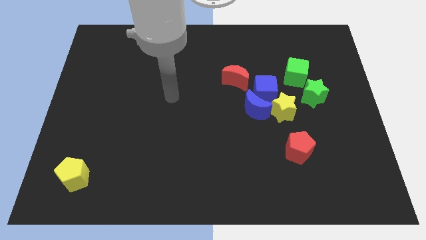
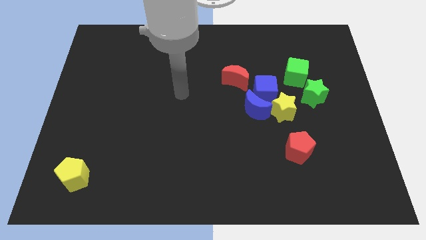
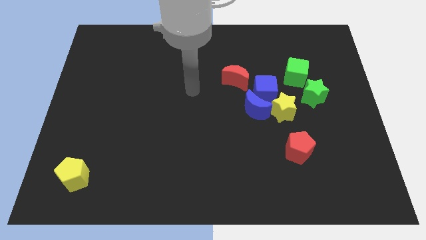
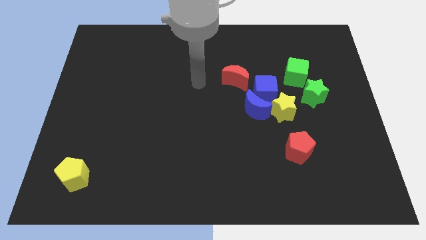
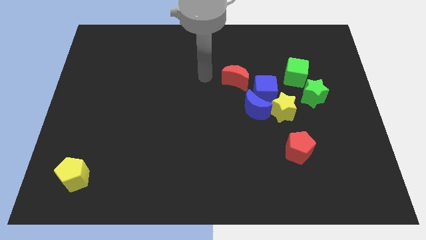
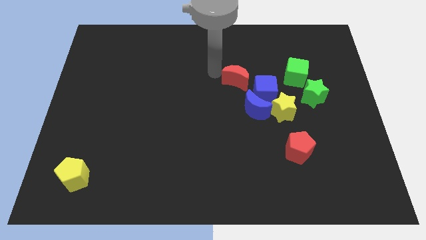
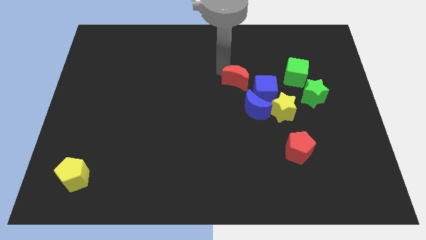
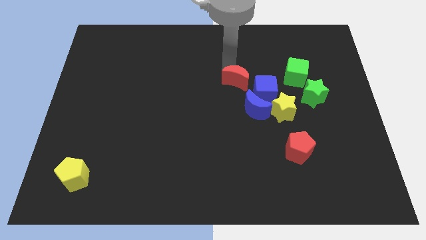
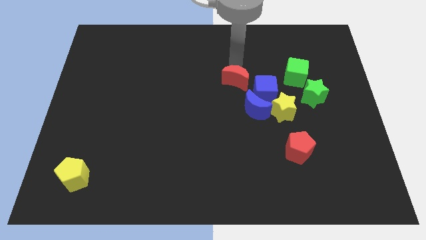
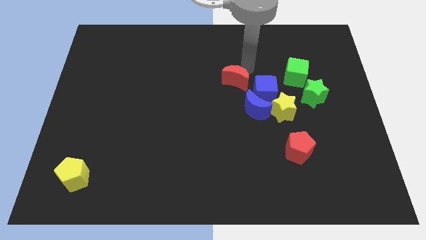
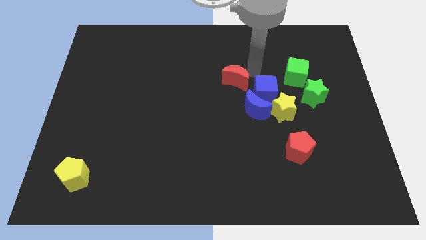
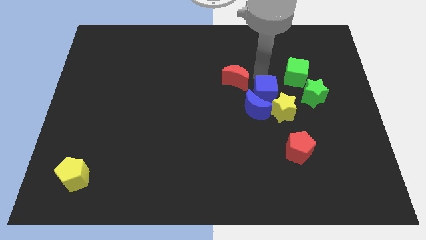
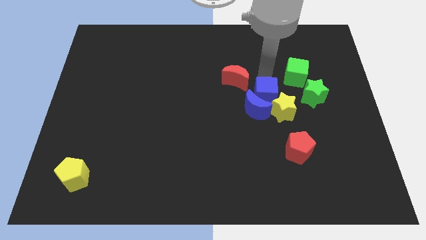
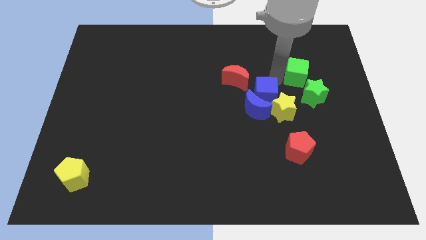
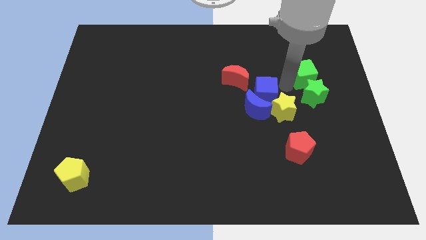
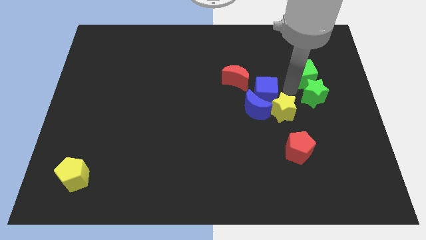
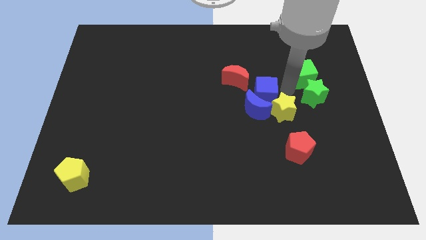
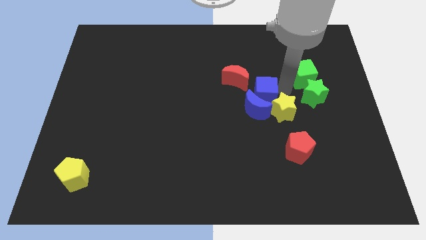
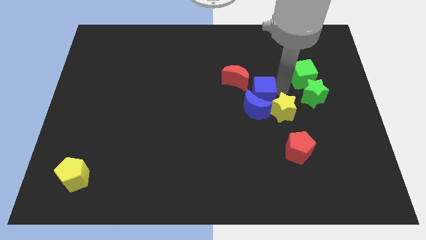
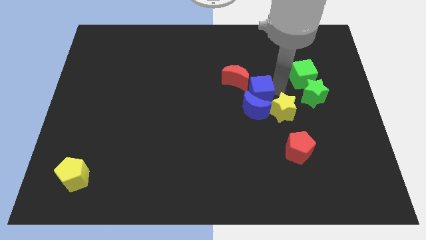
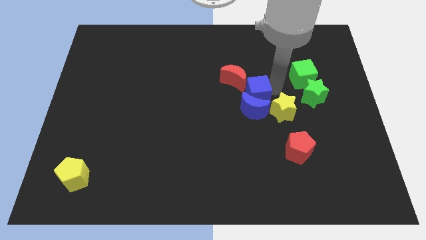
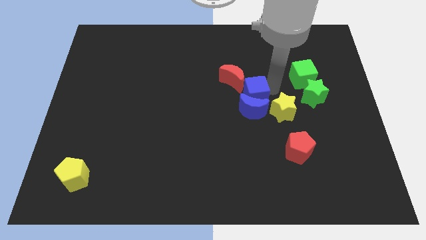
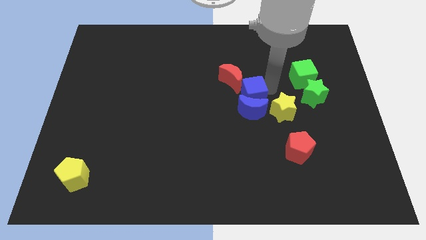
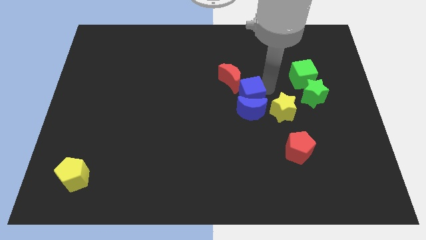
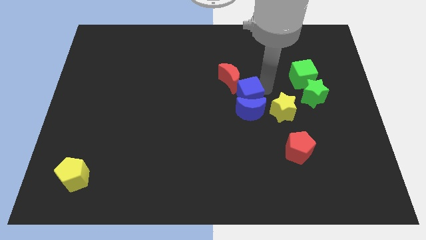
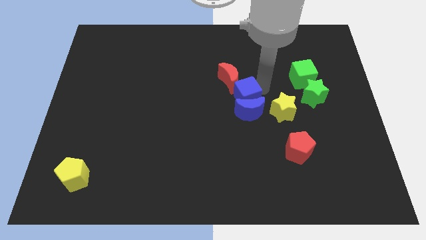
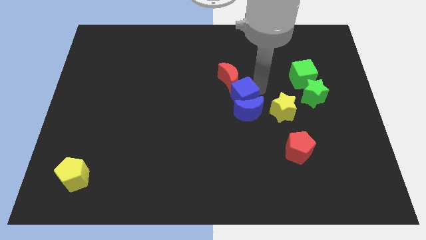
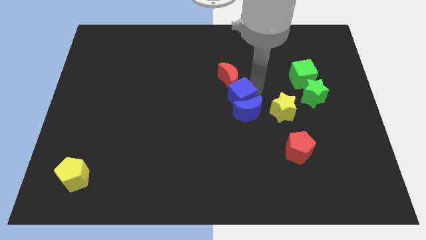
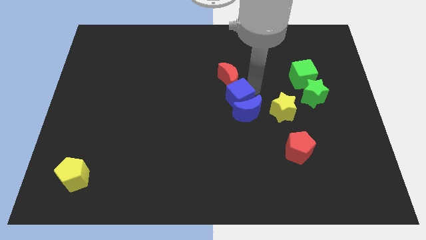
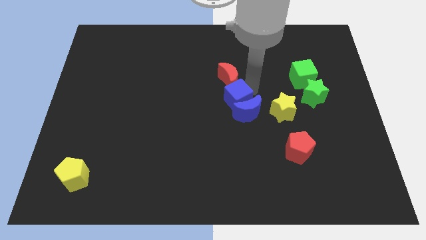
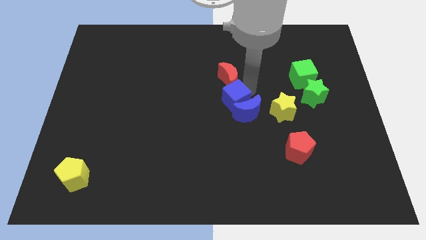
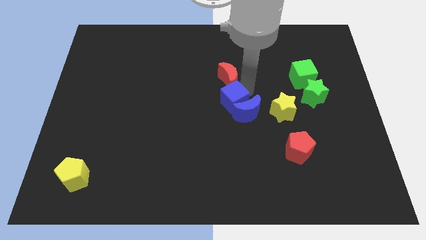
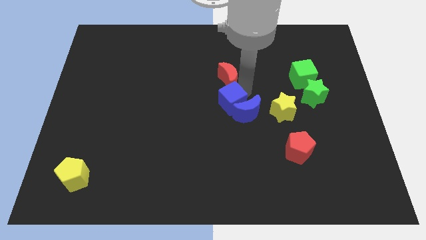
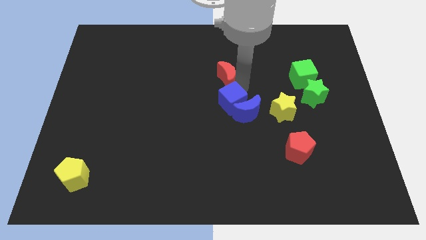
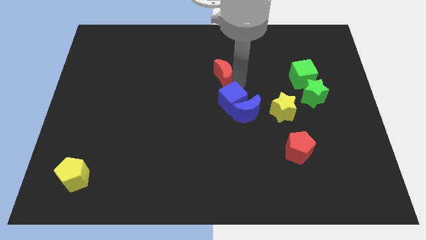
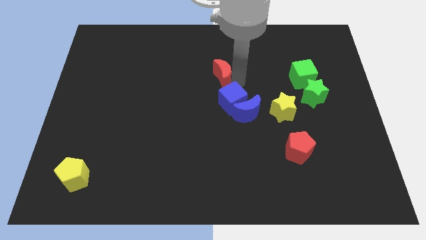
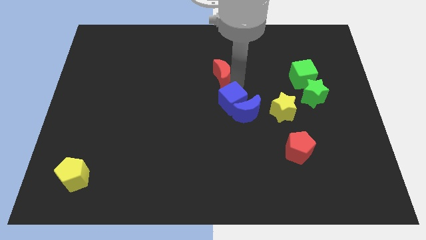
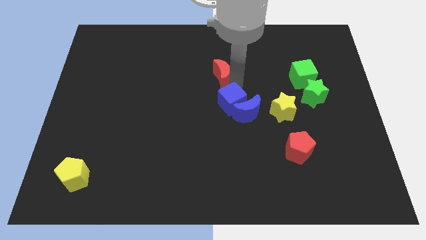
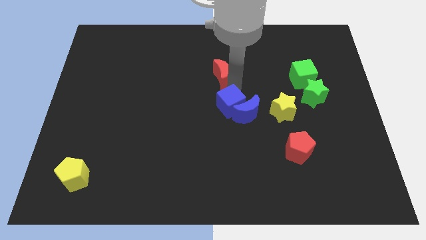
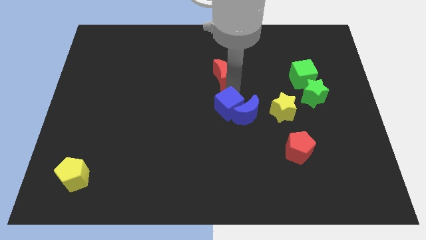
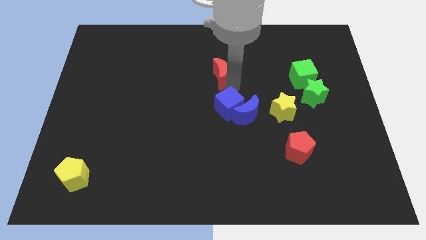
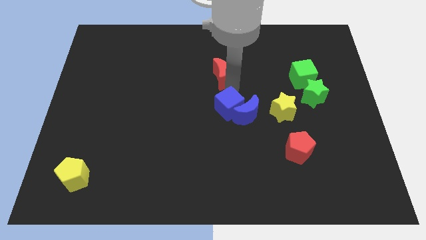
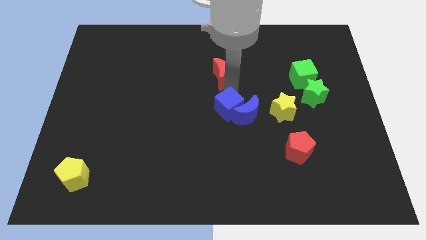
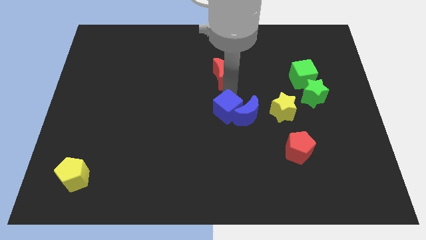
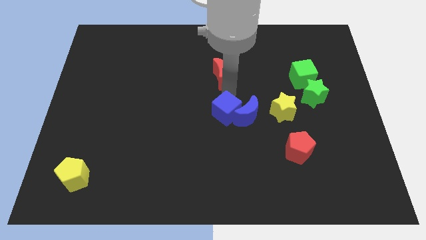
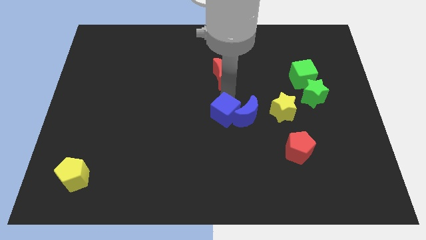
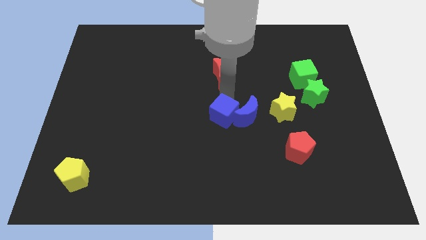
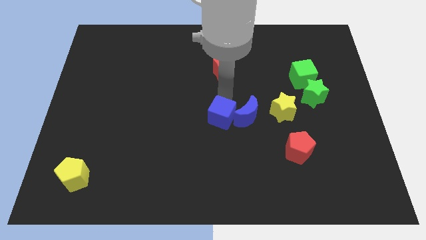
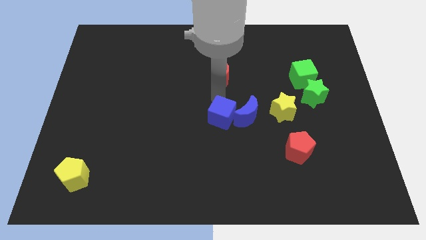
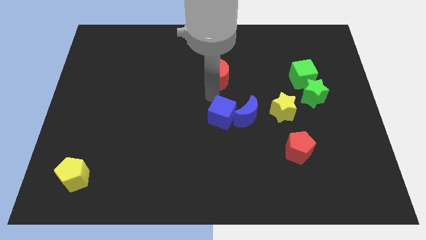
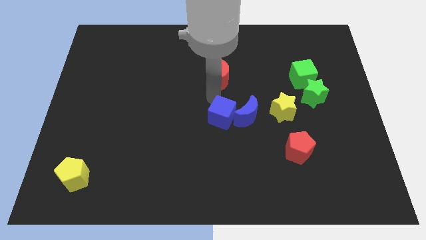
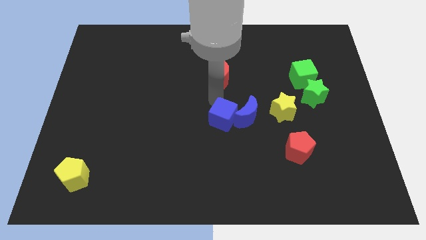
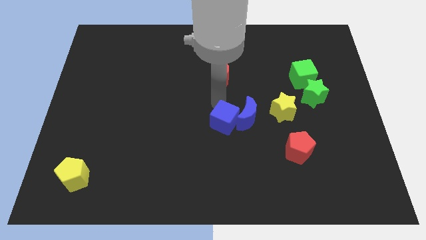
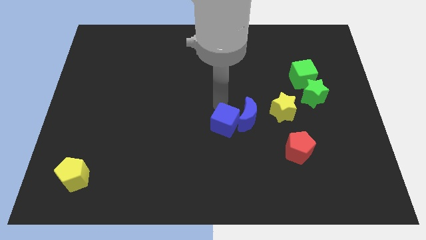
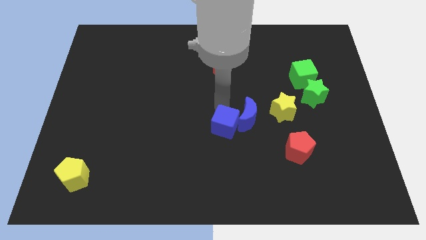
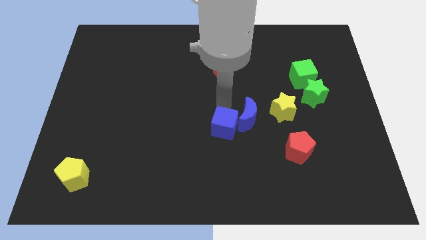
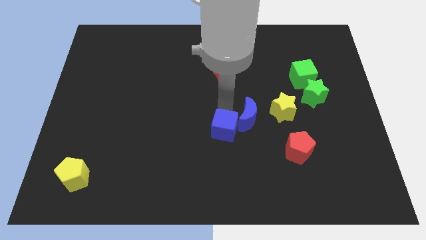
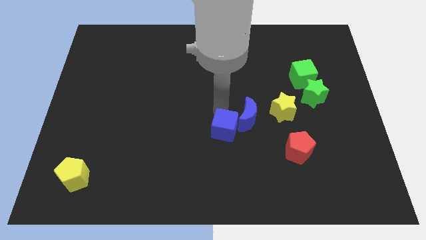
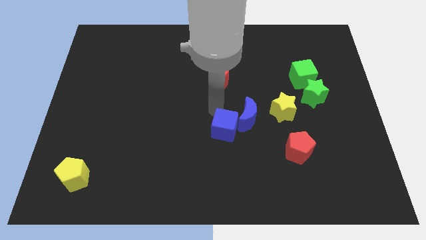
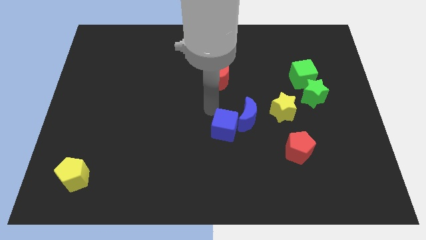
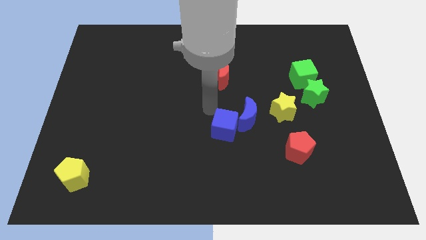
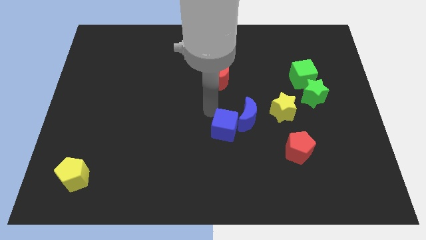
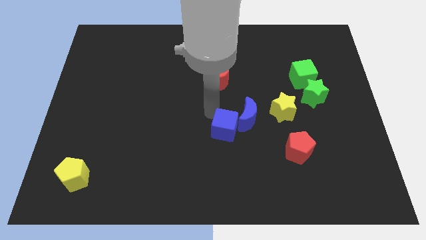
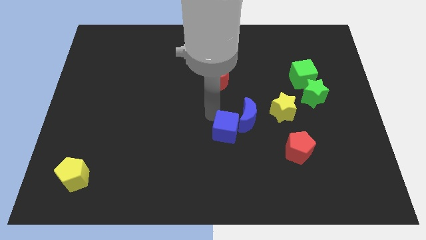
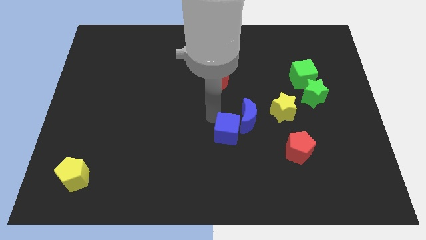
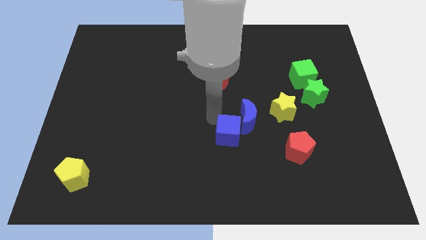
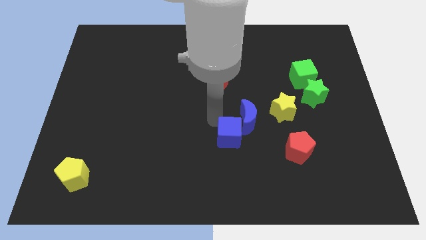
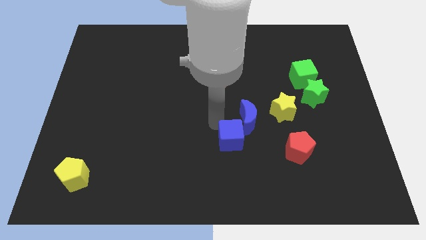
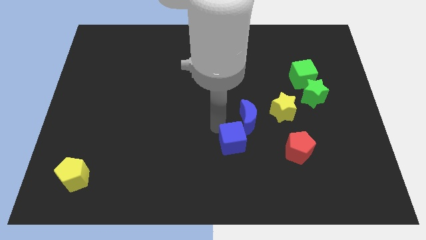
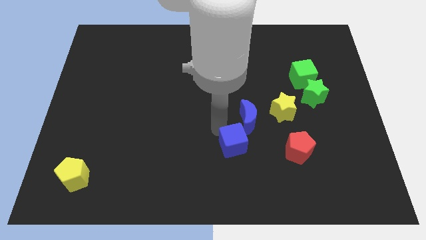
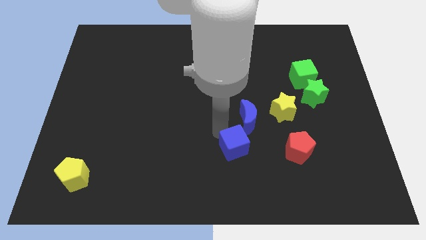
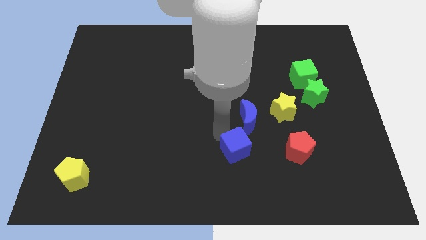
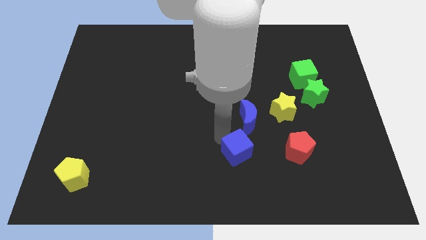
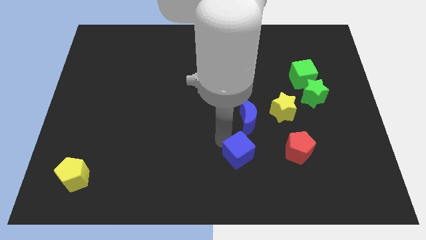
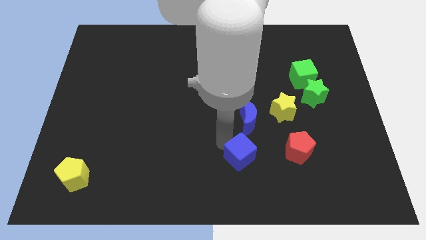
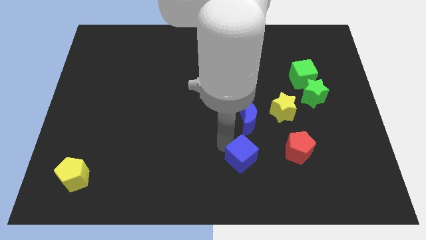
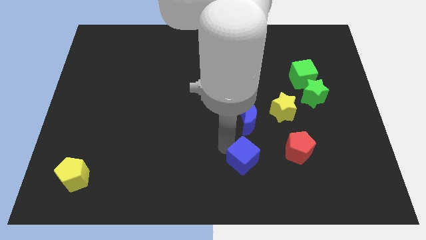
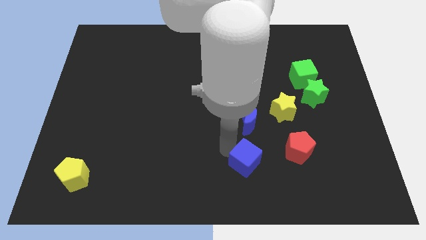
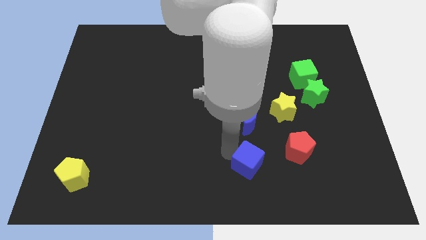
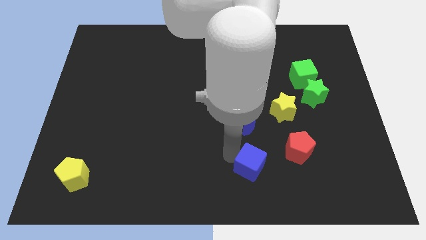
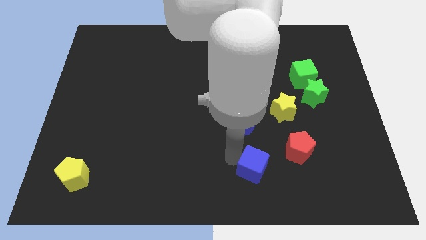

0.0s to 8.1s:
move the blue cube diagonally down and to the left of the red pentagon
